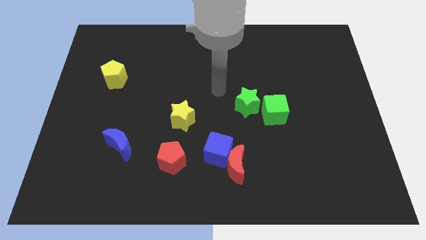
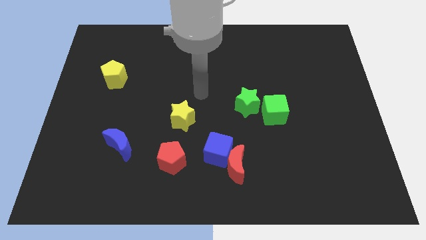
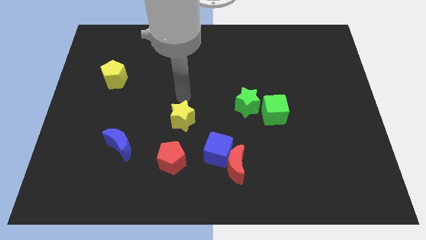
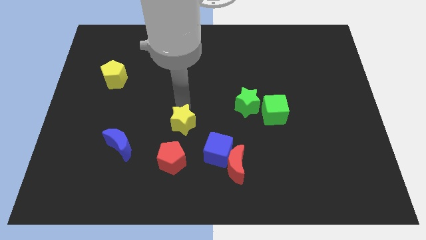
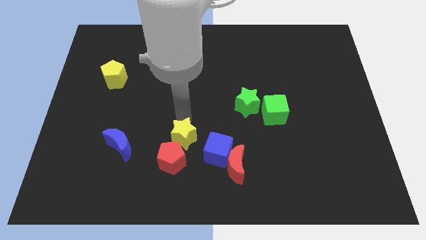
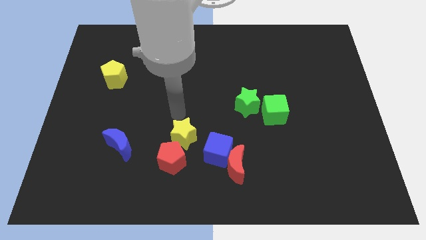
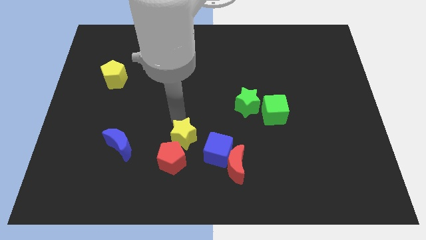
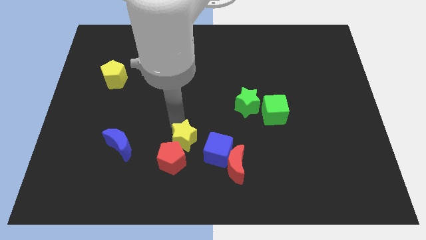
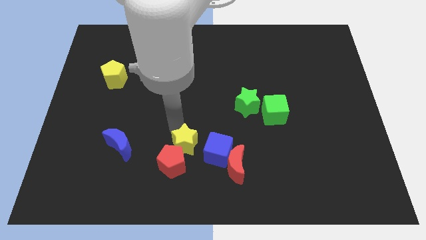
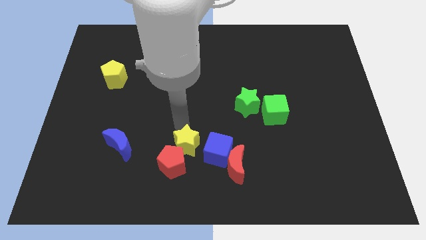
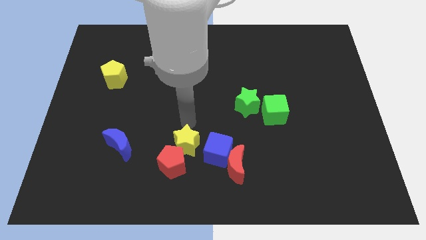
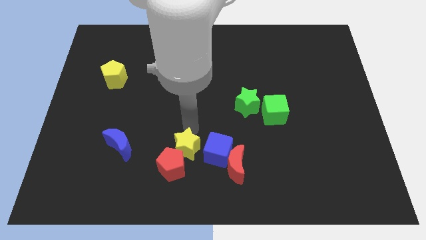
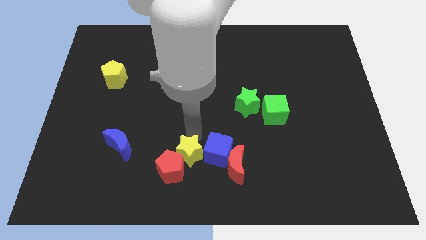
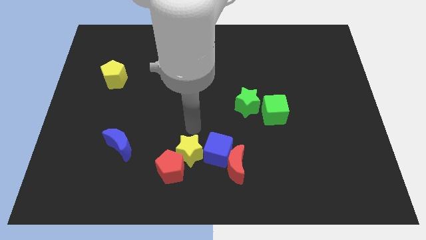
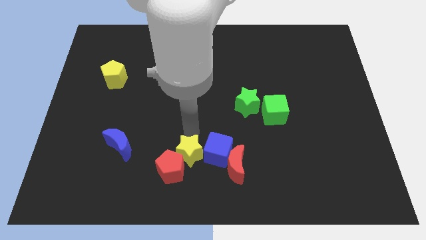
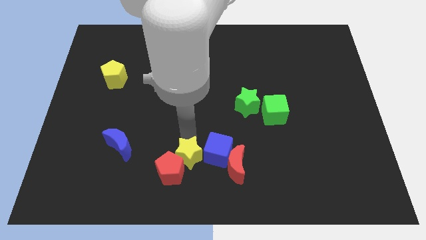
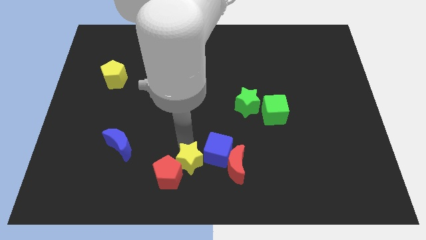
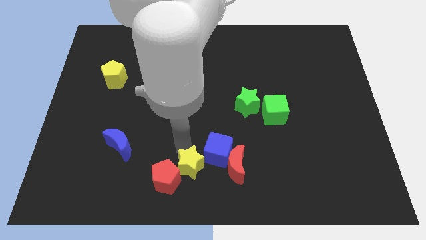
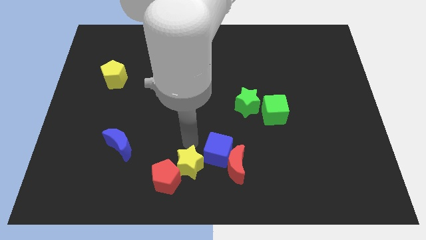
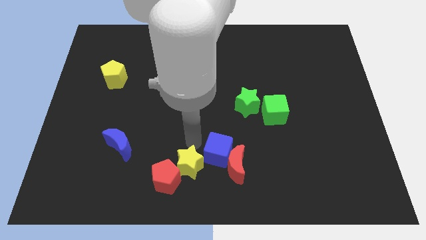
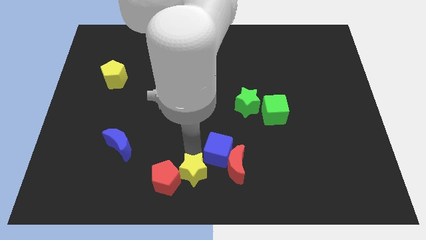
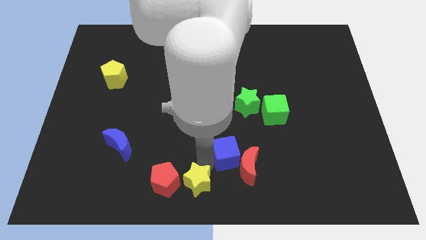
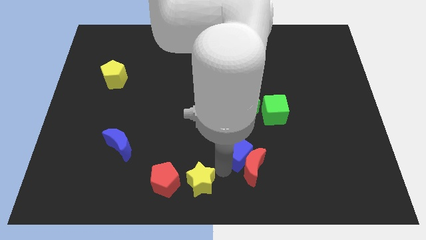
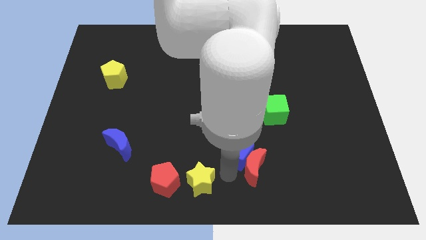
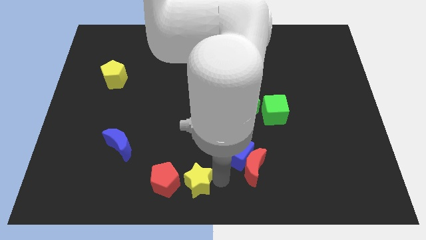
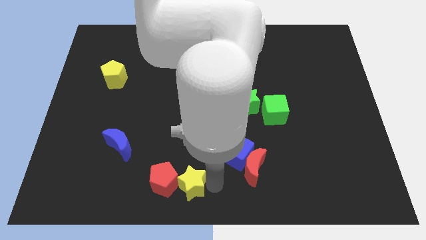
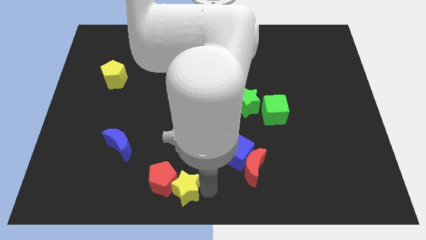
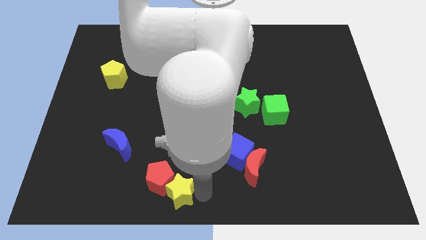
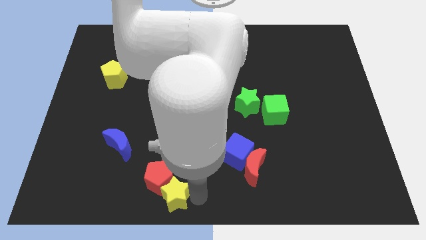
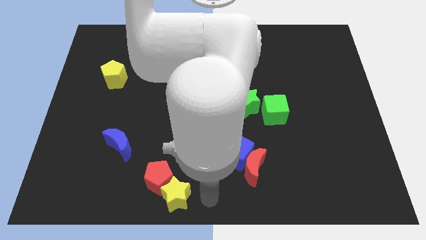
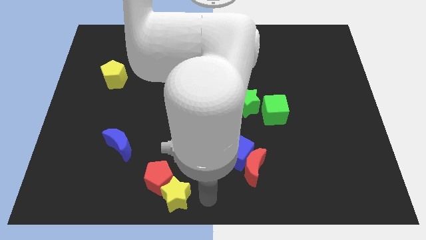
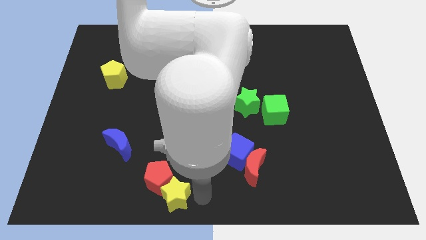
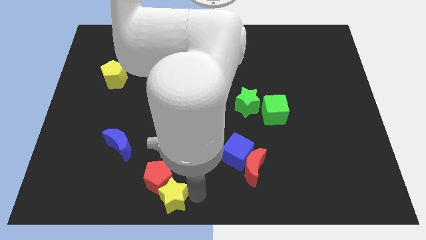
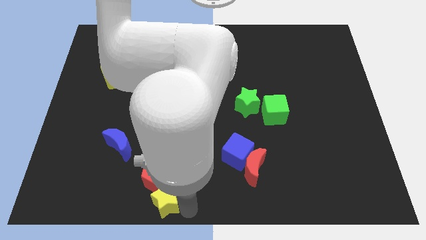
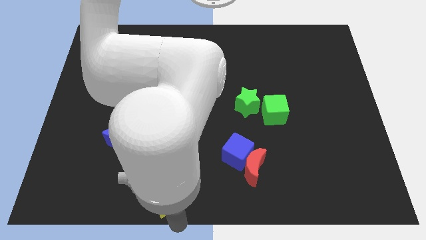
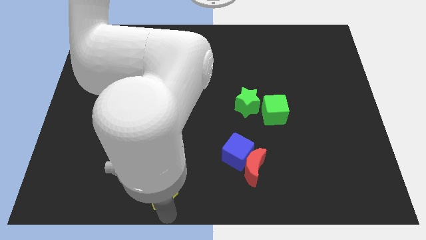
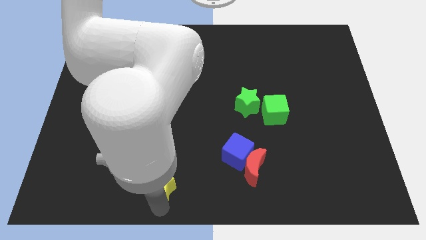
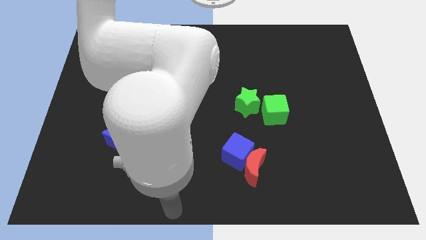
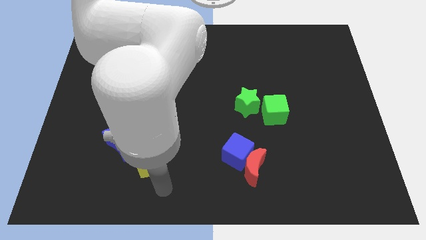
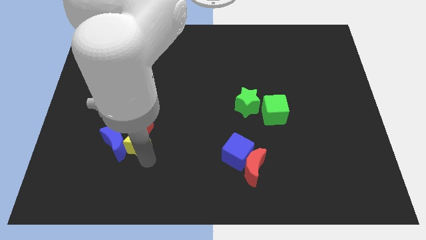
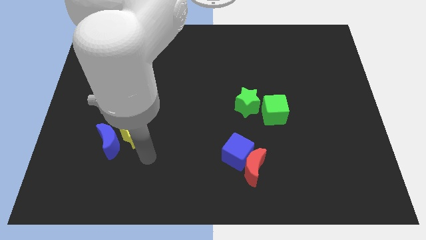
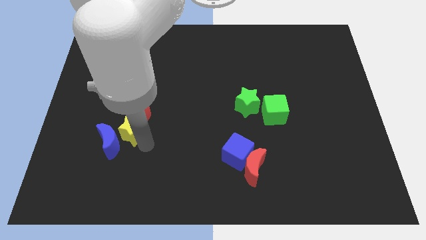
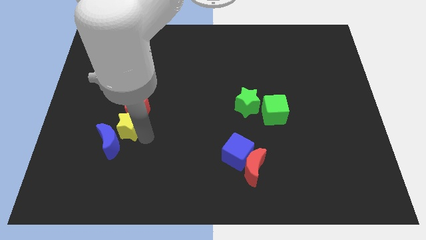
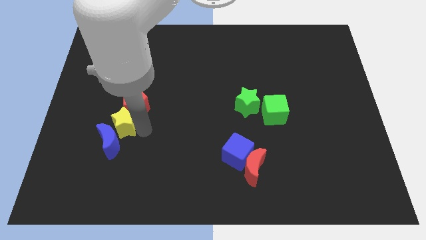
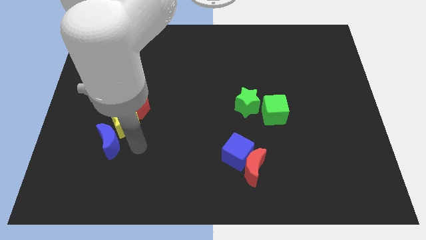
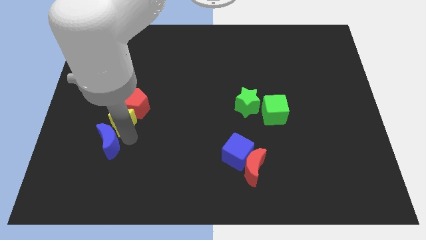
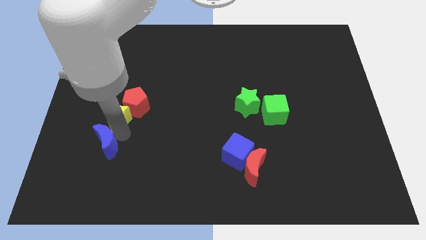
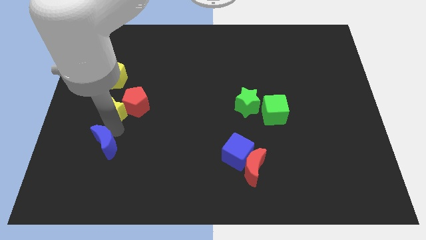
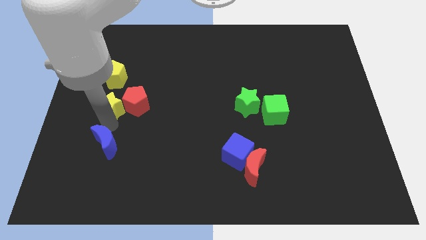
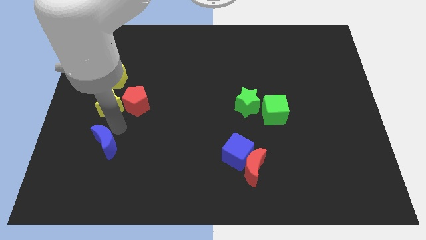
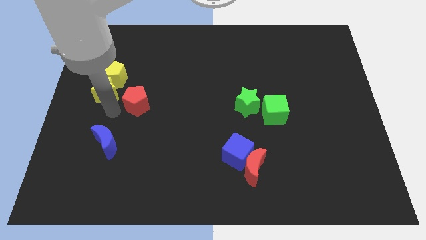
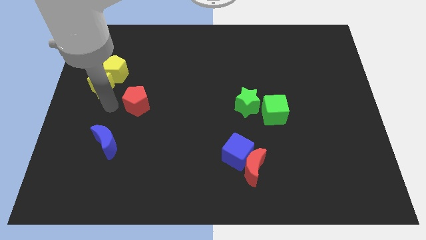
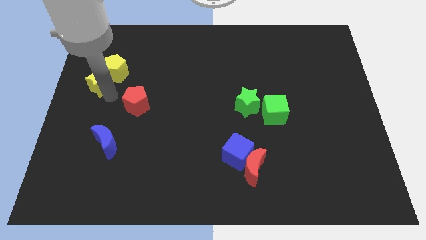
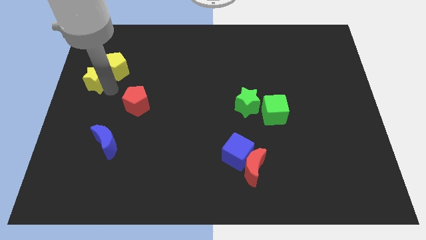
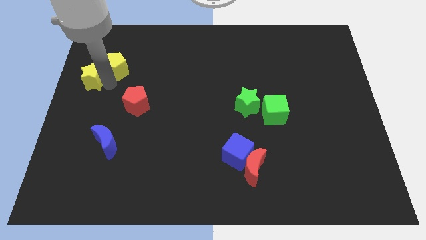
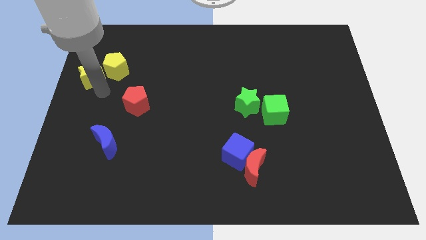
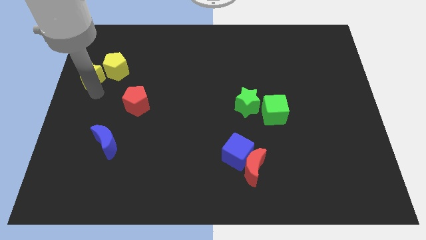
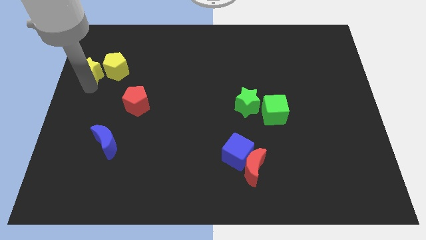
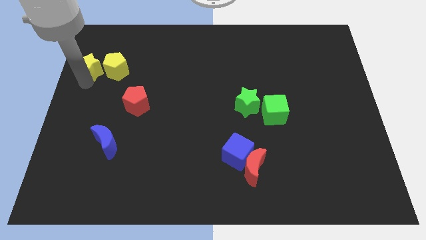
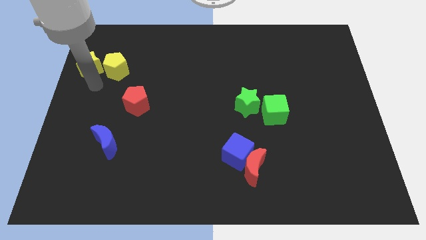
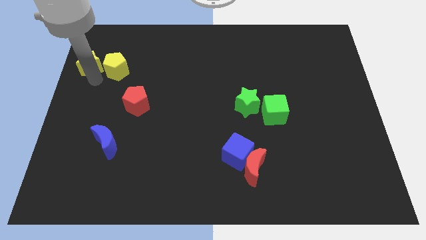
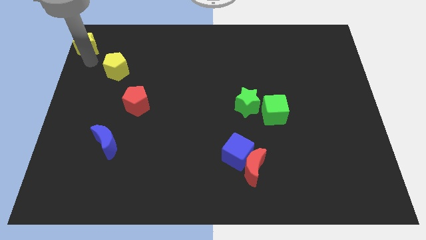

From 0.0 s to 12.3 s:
put the yellow star to the top left of the board
